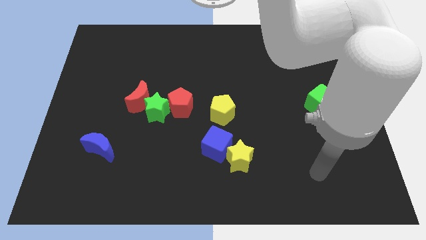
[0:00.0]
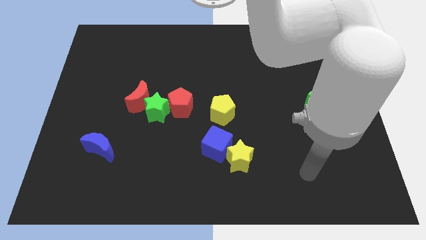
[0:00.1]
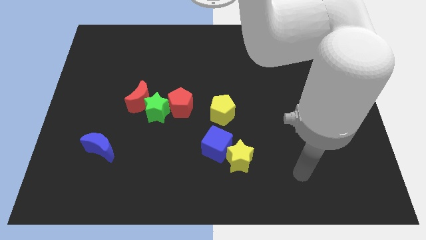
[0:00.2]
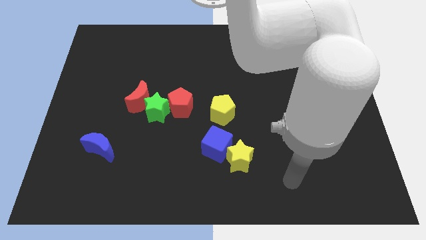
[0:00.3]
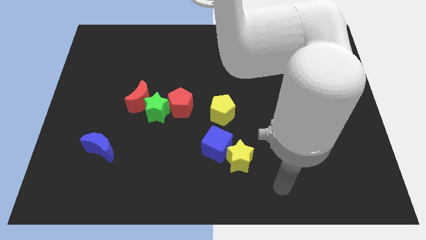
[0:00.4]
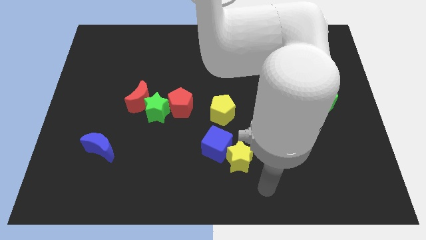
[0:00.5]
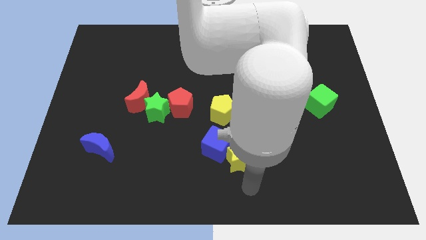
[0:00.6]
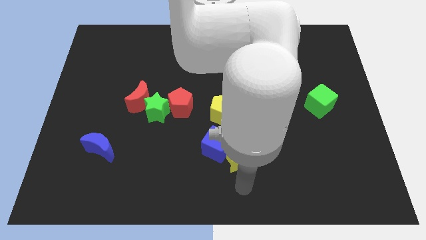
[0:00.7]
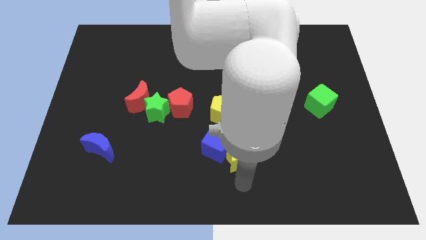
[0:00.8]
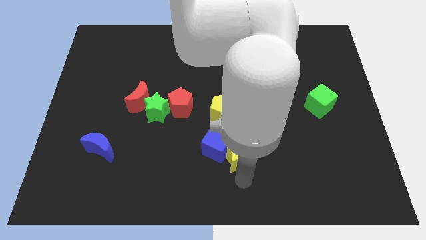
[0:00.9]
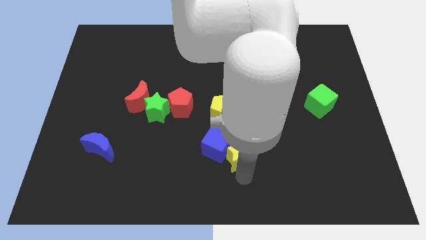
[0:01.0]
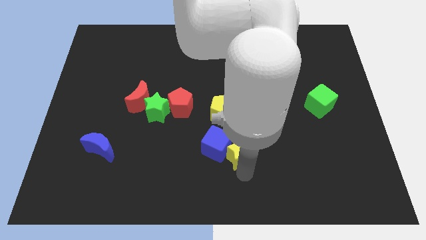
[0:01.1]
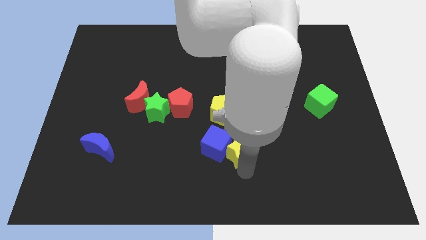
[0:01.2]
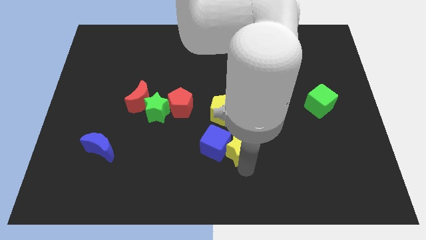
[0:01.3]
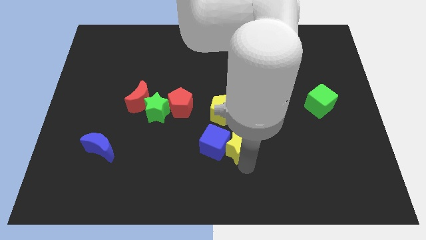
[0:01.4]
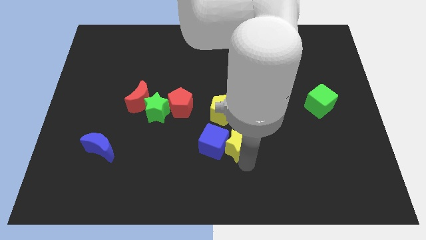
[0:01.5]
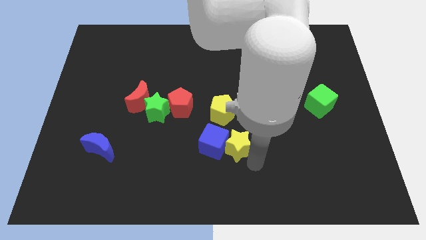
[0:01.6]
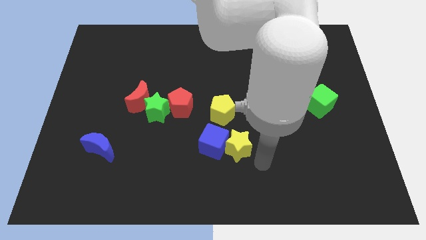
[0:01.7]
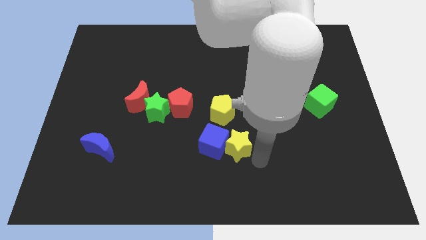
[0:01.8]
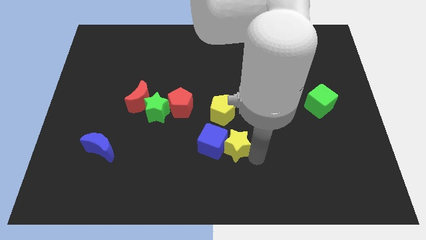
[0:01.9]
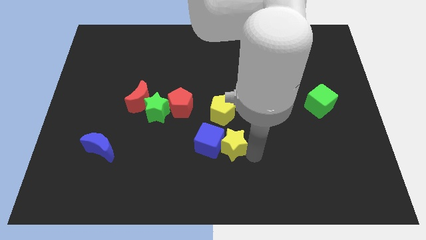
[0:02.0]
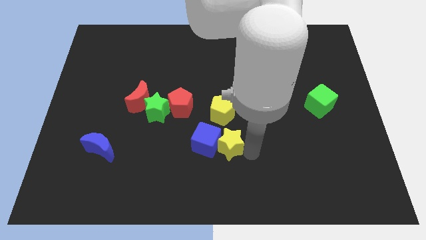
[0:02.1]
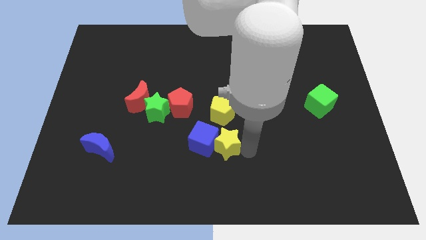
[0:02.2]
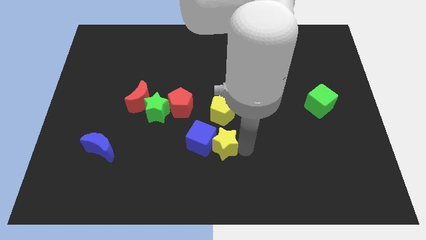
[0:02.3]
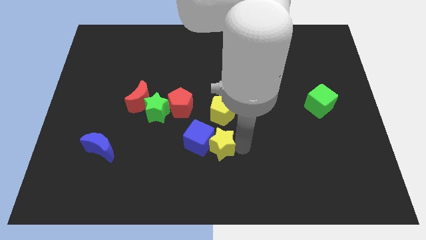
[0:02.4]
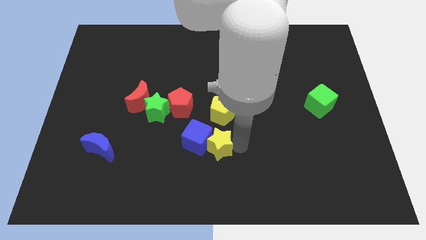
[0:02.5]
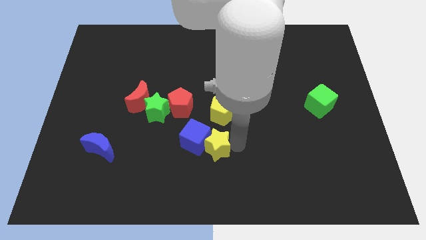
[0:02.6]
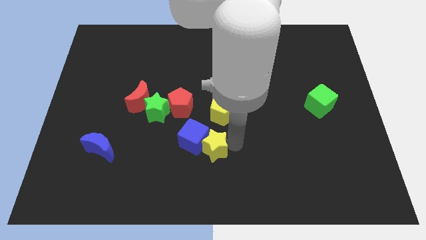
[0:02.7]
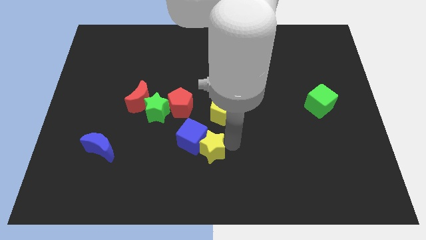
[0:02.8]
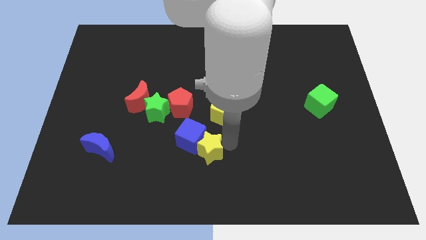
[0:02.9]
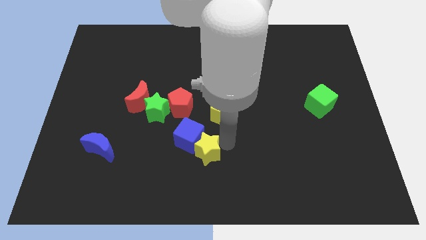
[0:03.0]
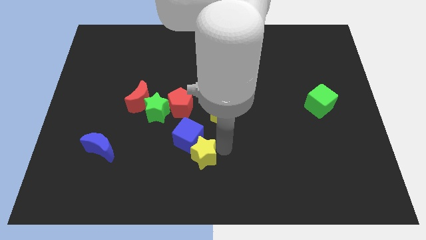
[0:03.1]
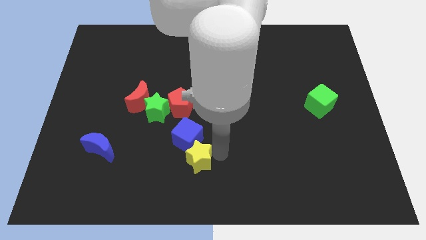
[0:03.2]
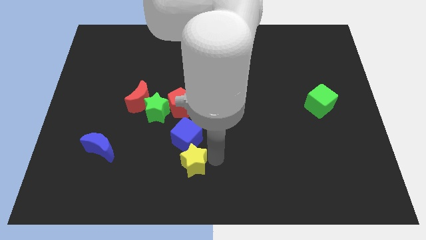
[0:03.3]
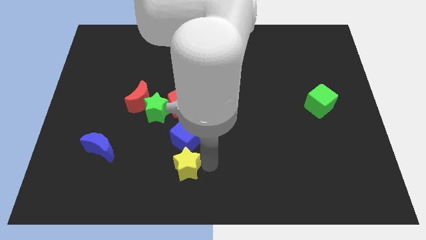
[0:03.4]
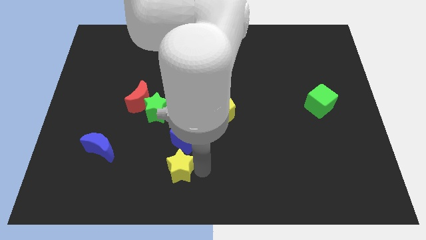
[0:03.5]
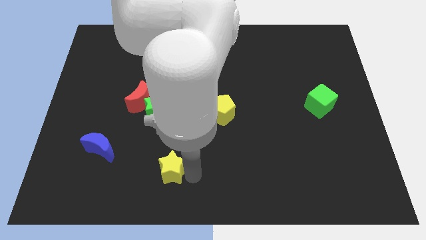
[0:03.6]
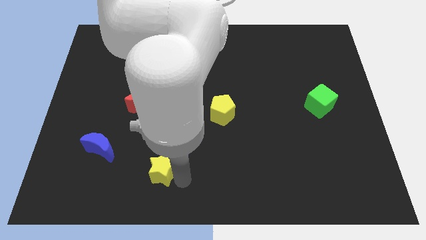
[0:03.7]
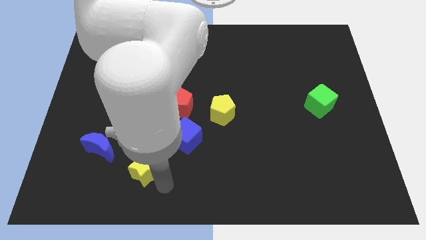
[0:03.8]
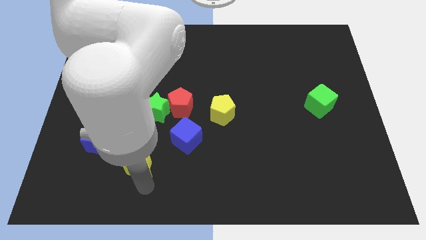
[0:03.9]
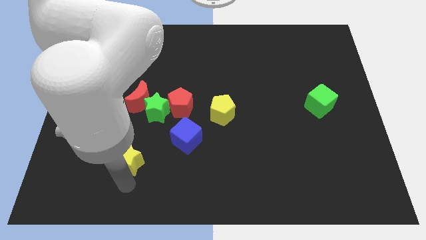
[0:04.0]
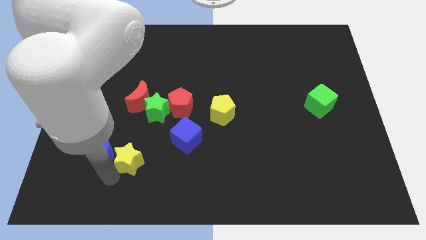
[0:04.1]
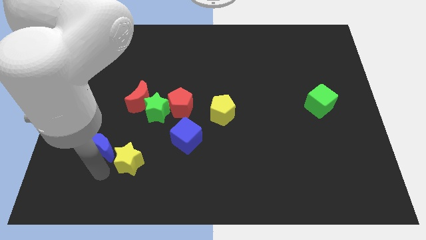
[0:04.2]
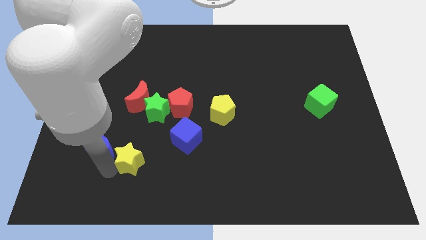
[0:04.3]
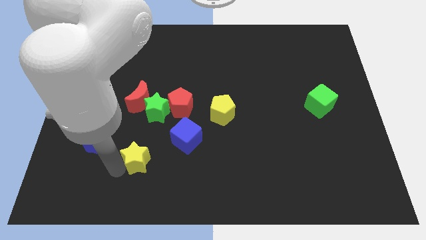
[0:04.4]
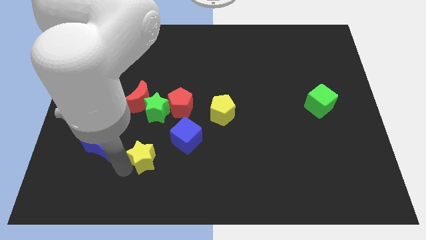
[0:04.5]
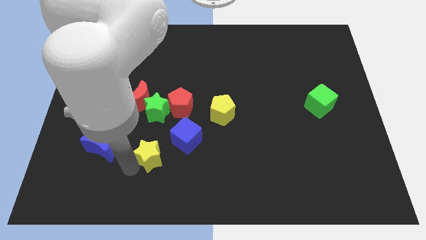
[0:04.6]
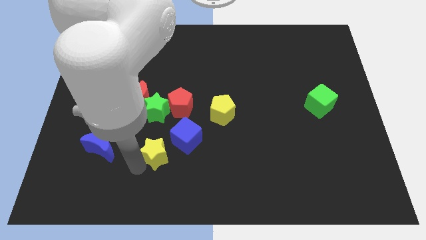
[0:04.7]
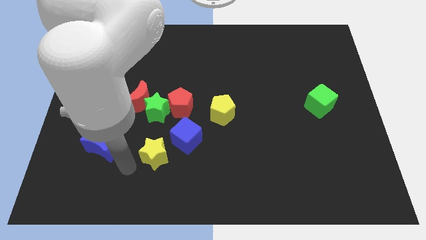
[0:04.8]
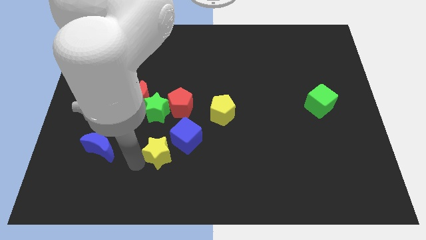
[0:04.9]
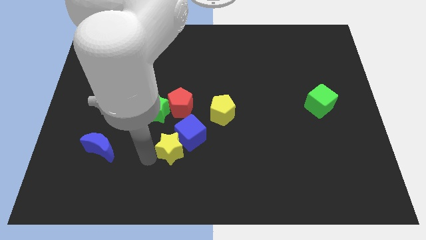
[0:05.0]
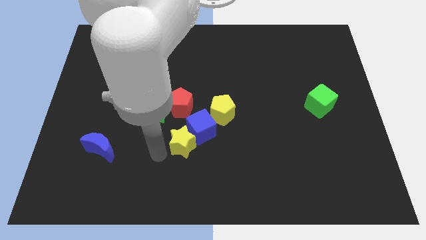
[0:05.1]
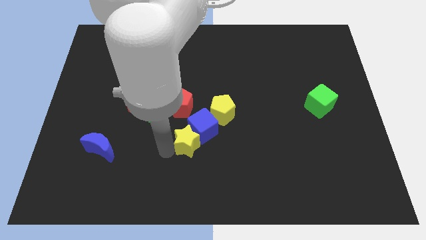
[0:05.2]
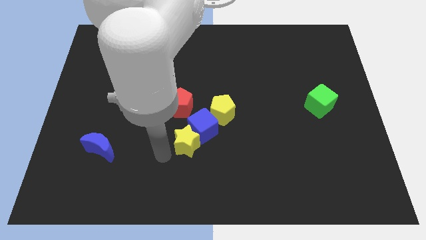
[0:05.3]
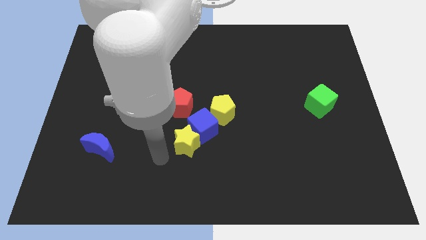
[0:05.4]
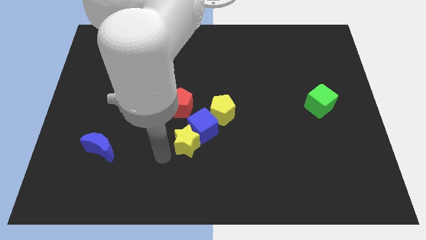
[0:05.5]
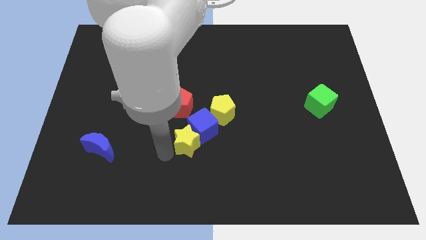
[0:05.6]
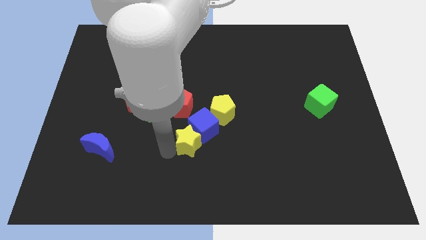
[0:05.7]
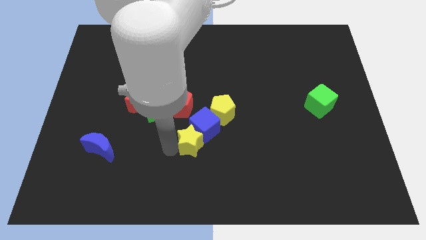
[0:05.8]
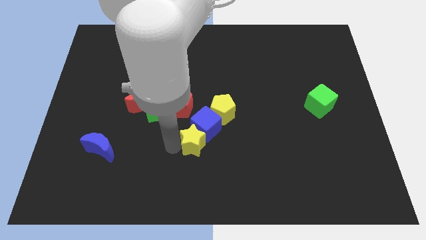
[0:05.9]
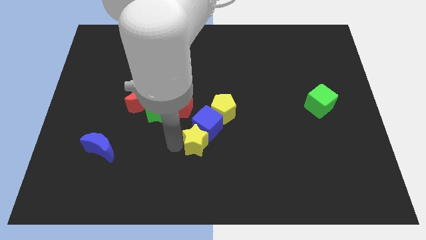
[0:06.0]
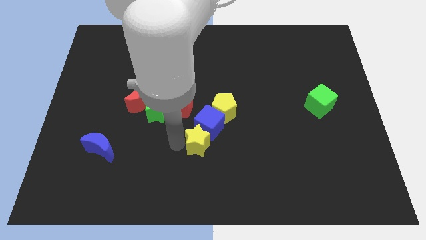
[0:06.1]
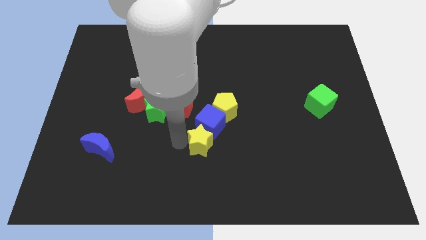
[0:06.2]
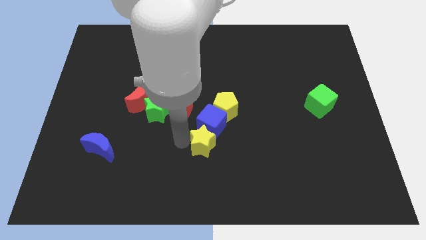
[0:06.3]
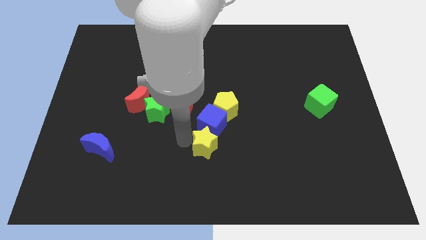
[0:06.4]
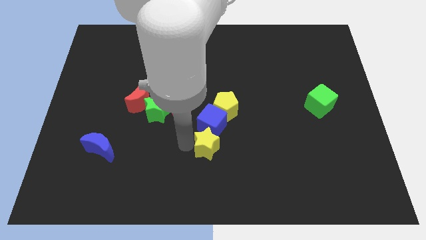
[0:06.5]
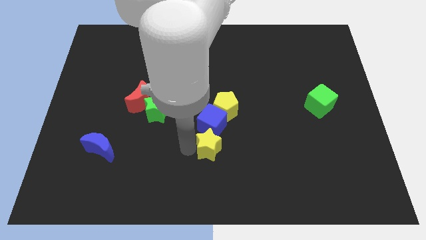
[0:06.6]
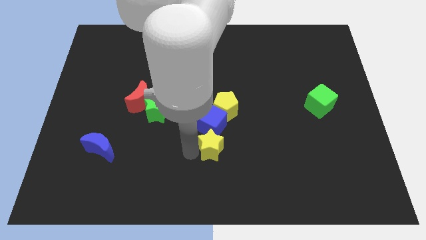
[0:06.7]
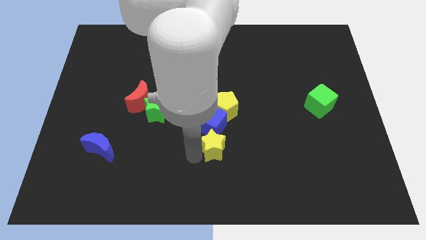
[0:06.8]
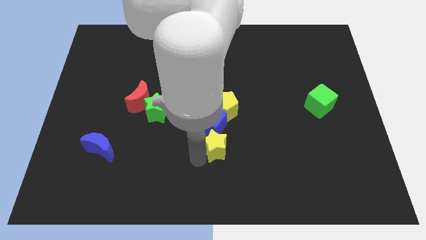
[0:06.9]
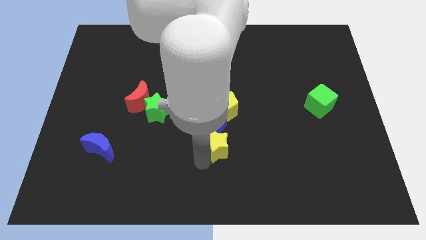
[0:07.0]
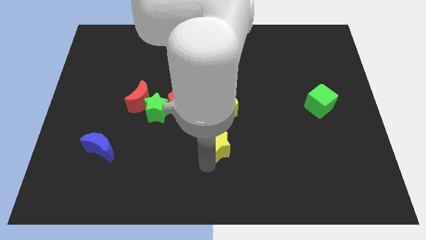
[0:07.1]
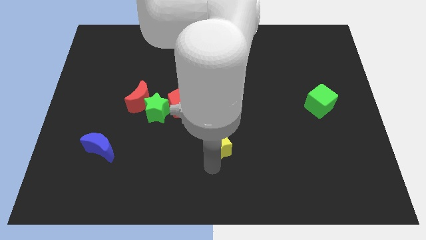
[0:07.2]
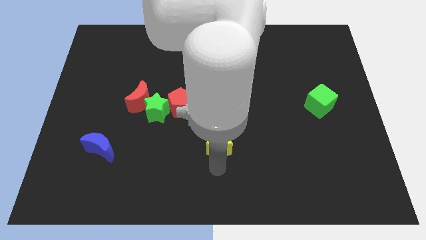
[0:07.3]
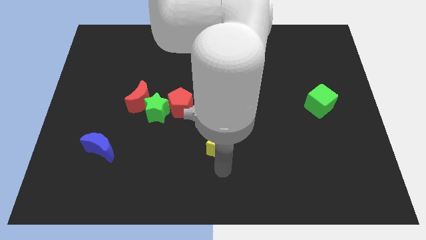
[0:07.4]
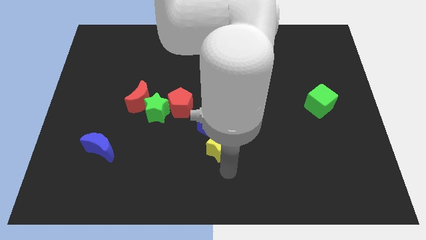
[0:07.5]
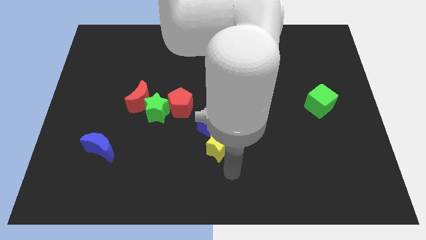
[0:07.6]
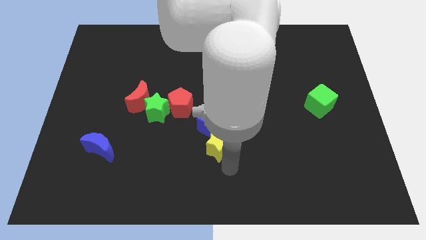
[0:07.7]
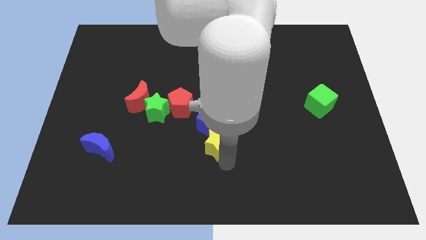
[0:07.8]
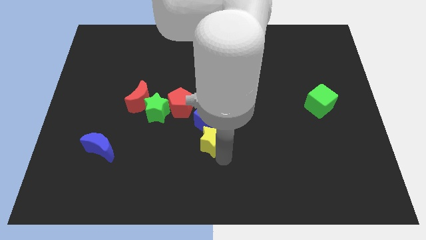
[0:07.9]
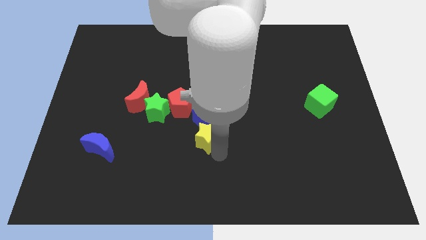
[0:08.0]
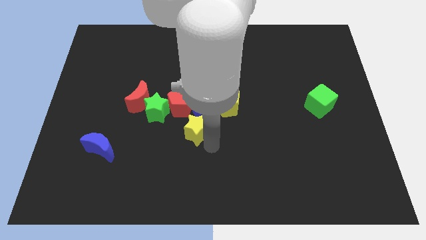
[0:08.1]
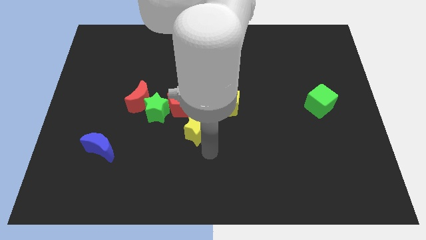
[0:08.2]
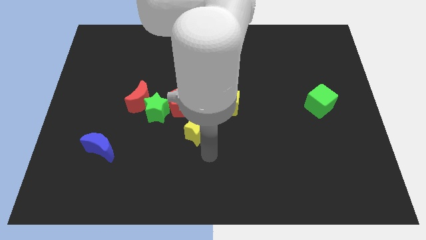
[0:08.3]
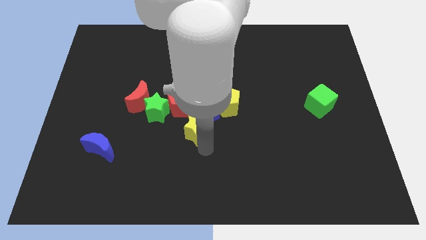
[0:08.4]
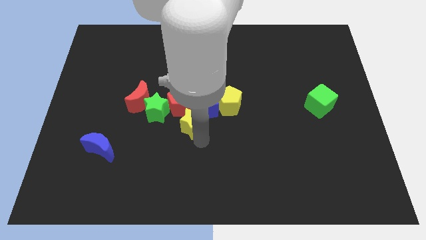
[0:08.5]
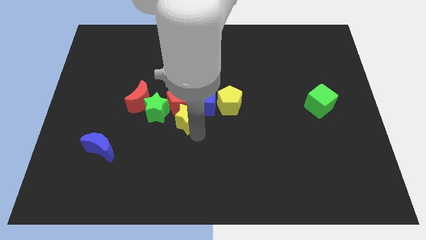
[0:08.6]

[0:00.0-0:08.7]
move the yellow star to the red pentagon
